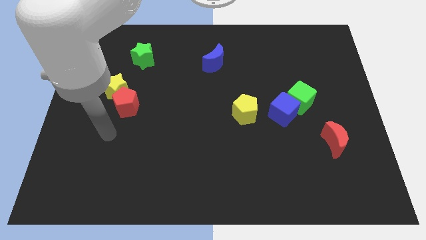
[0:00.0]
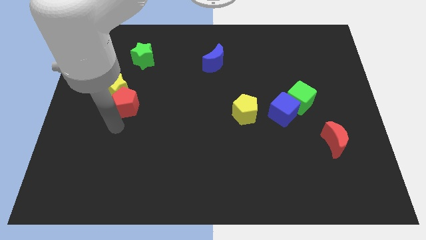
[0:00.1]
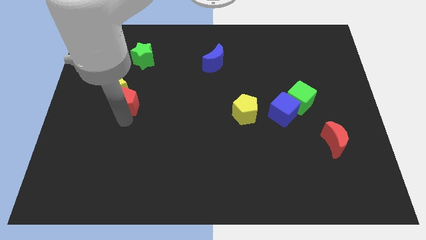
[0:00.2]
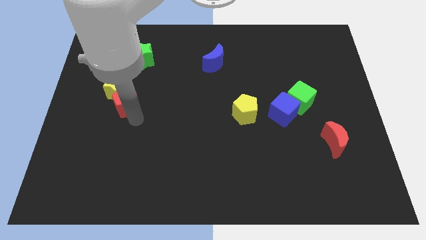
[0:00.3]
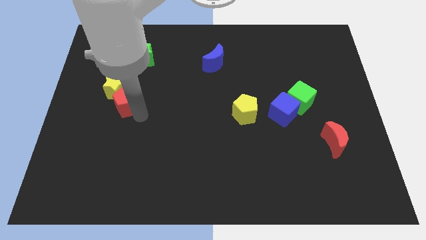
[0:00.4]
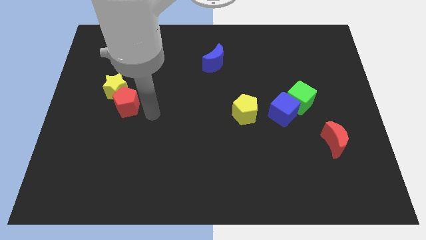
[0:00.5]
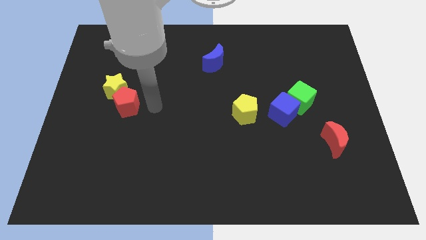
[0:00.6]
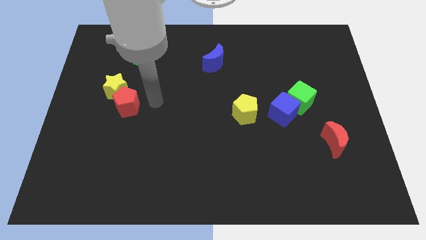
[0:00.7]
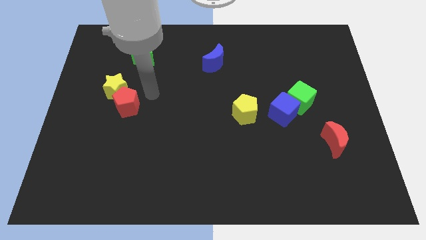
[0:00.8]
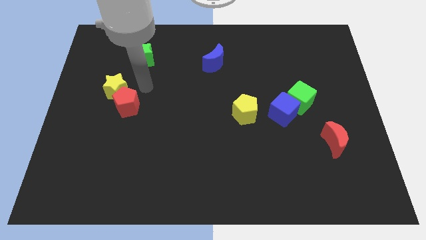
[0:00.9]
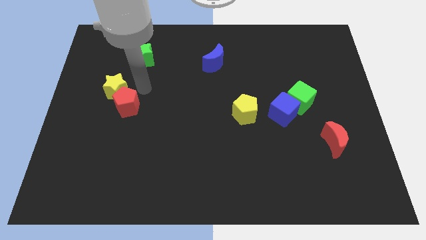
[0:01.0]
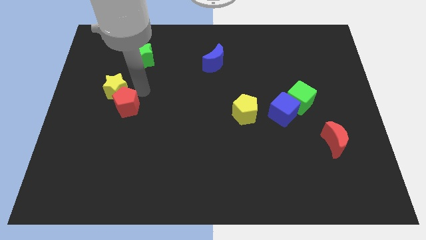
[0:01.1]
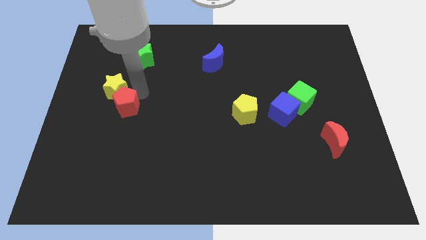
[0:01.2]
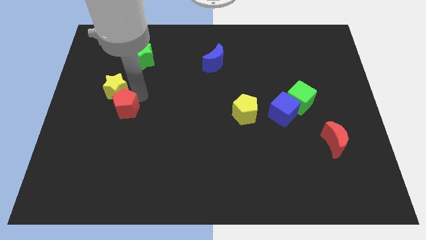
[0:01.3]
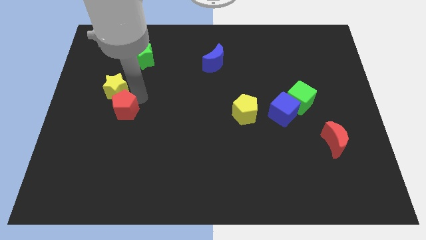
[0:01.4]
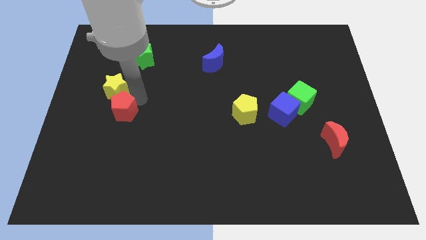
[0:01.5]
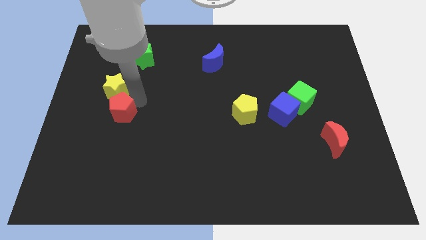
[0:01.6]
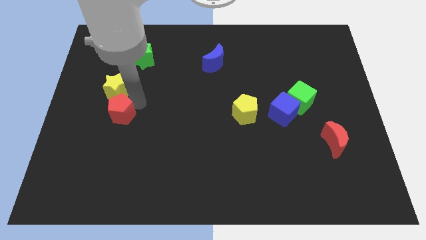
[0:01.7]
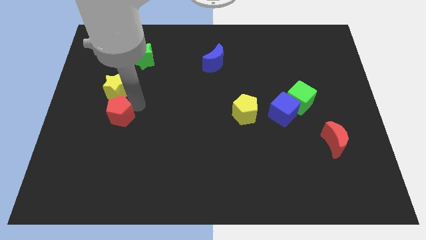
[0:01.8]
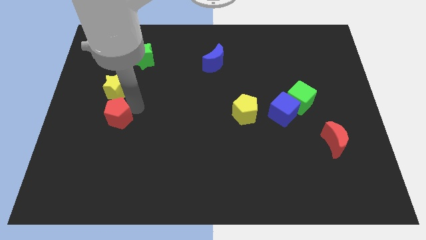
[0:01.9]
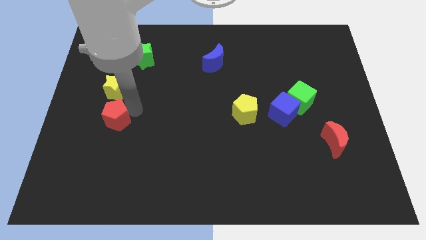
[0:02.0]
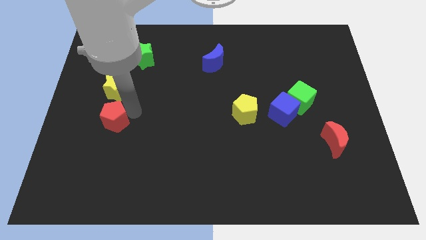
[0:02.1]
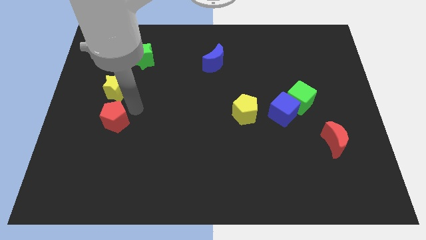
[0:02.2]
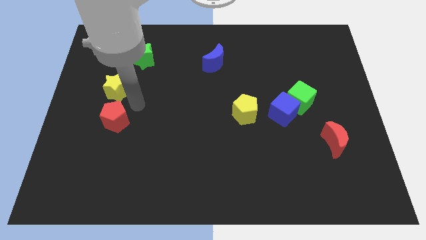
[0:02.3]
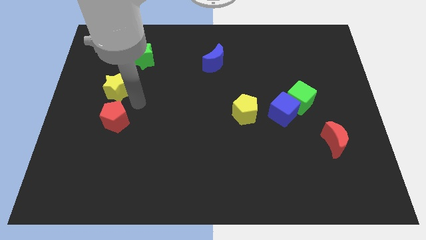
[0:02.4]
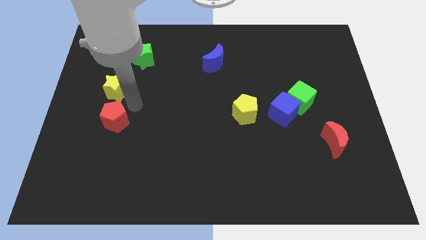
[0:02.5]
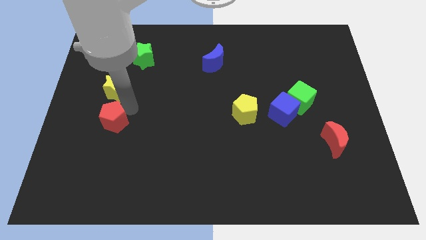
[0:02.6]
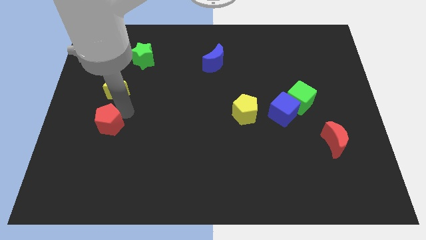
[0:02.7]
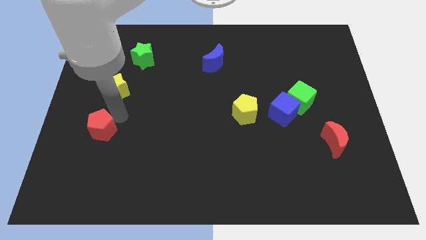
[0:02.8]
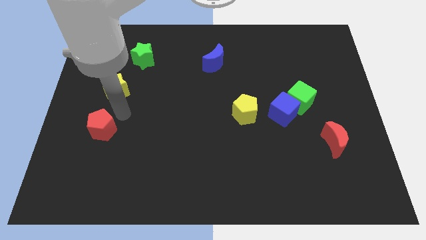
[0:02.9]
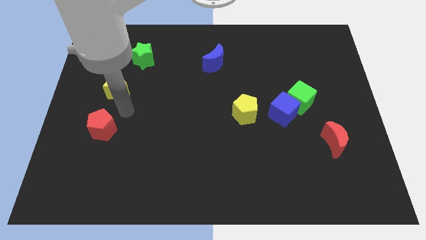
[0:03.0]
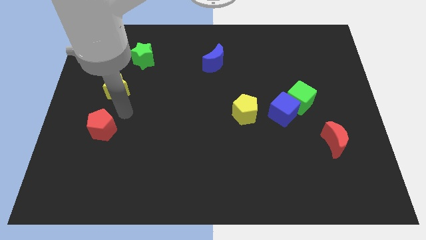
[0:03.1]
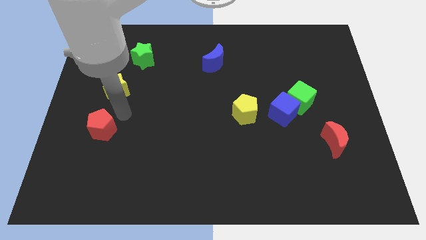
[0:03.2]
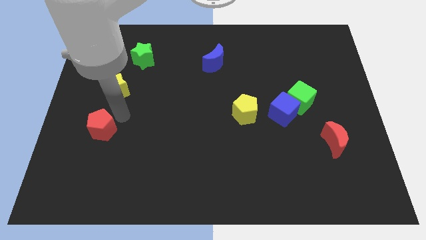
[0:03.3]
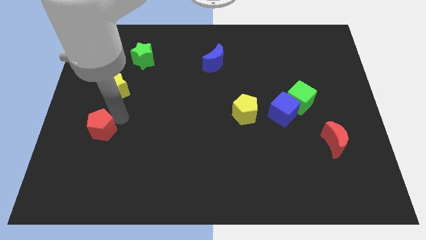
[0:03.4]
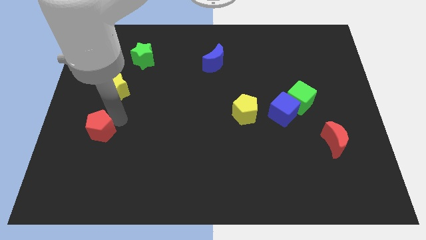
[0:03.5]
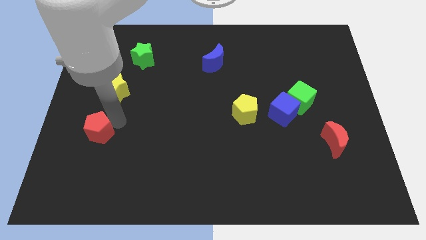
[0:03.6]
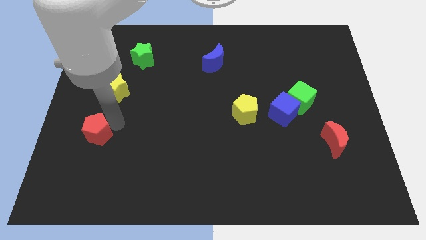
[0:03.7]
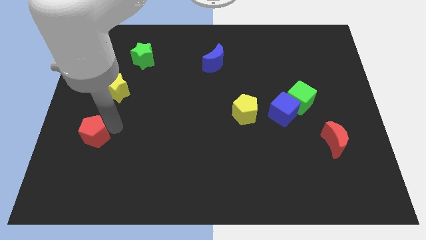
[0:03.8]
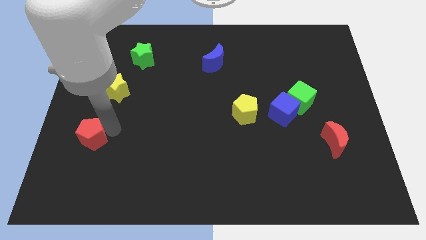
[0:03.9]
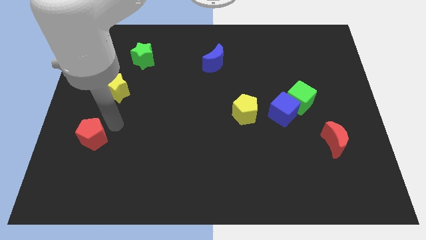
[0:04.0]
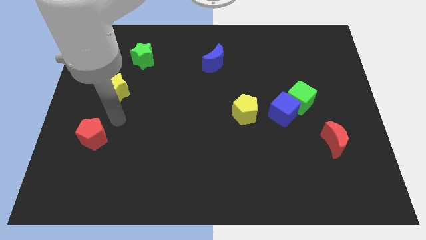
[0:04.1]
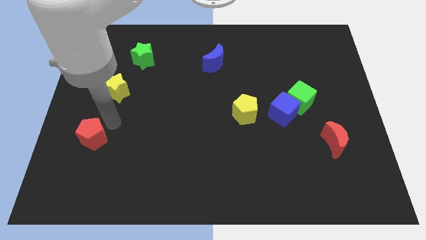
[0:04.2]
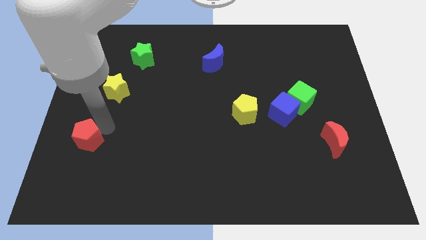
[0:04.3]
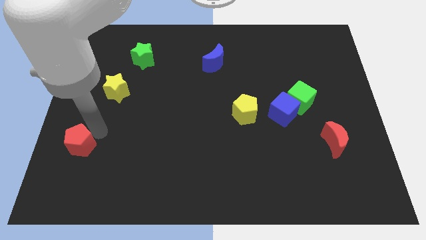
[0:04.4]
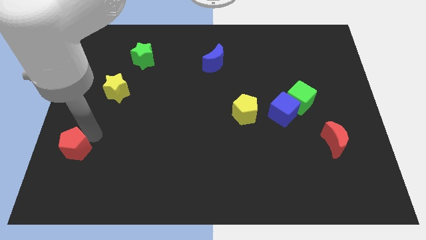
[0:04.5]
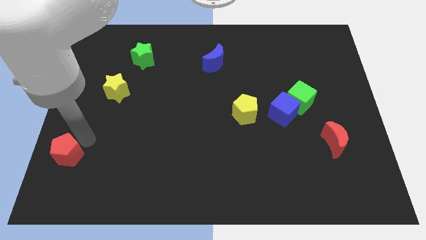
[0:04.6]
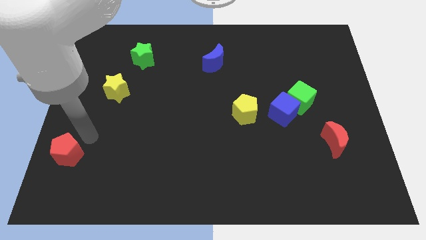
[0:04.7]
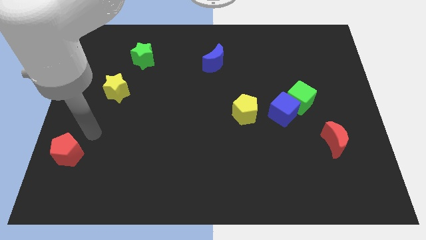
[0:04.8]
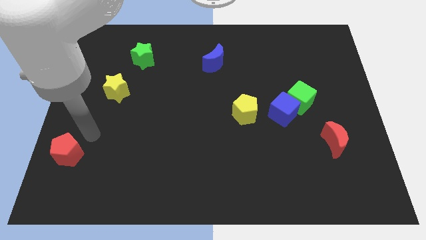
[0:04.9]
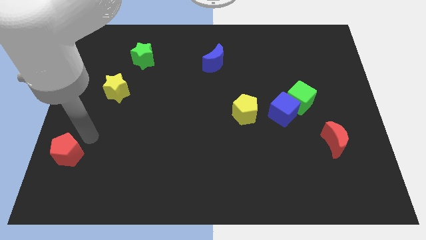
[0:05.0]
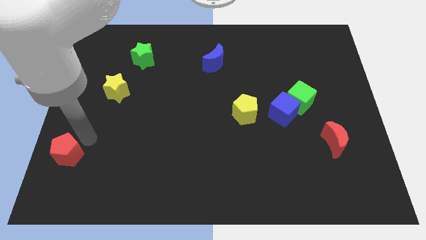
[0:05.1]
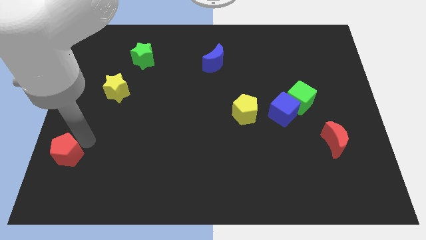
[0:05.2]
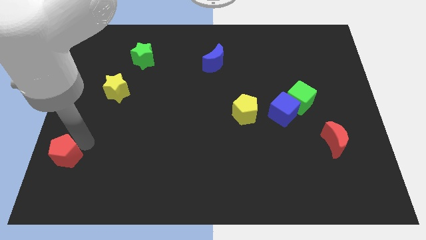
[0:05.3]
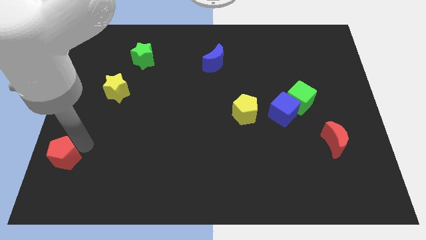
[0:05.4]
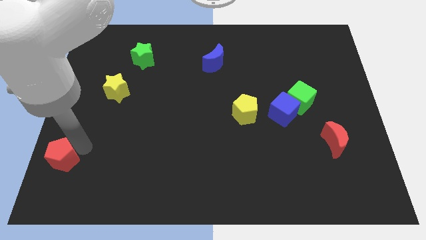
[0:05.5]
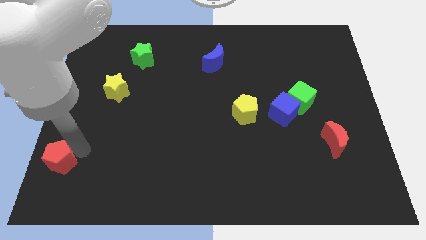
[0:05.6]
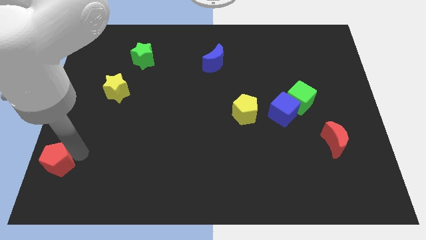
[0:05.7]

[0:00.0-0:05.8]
push the red pentagon to the lower left corner

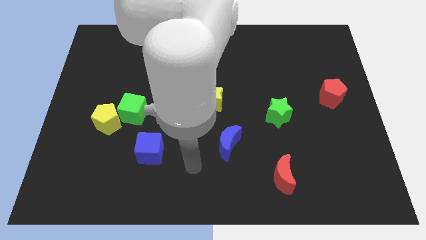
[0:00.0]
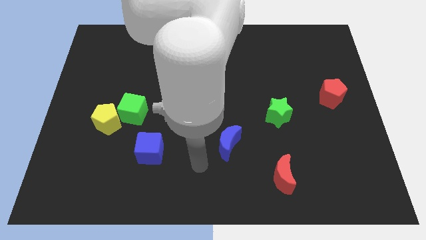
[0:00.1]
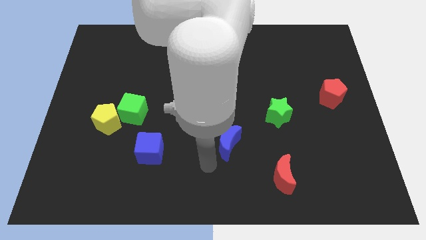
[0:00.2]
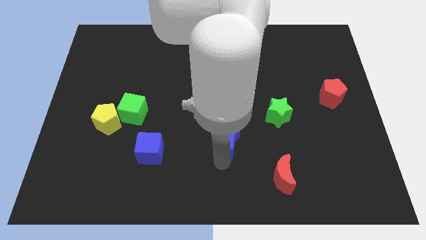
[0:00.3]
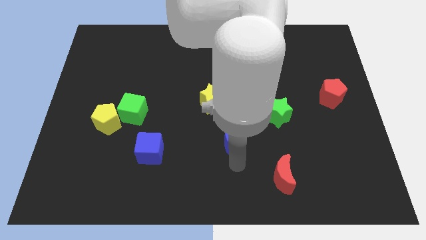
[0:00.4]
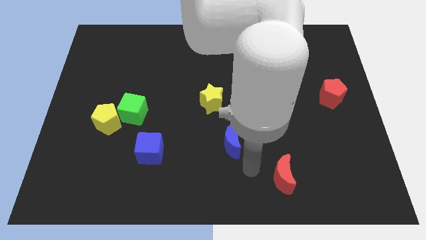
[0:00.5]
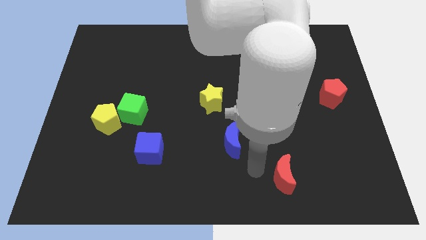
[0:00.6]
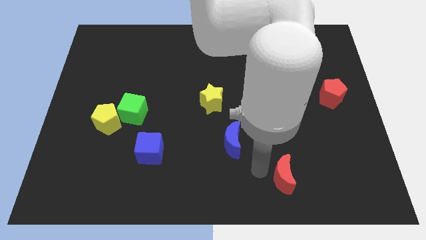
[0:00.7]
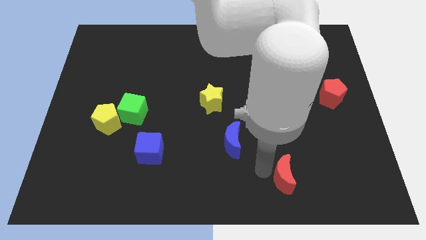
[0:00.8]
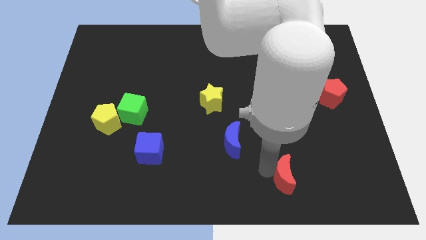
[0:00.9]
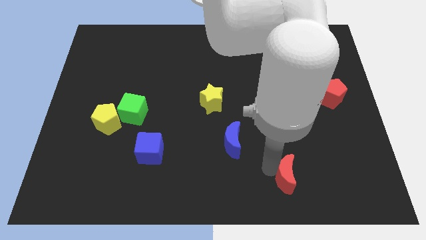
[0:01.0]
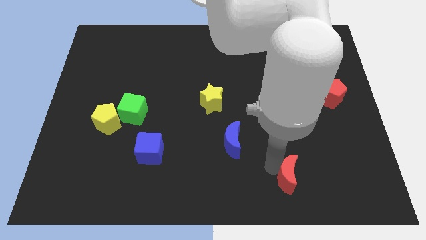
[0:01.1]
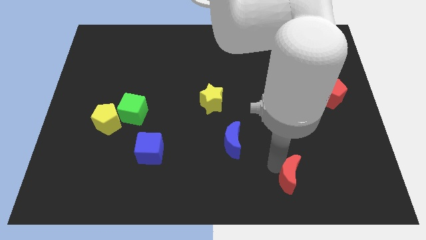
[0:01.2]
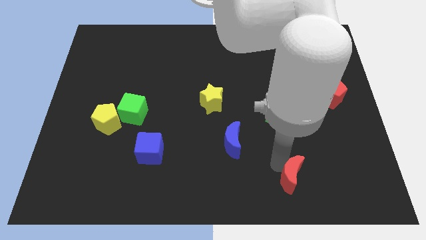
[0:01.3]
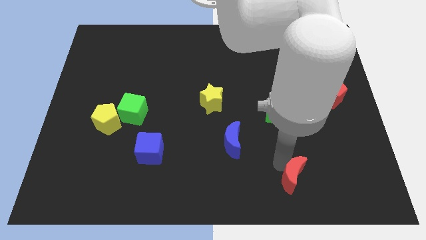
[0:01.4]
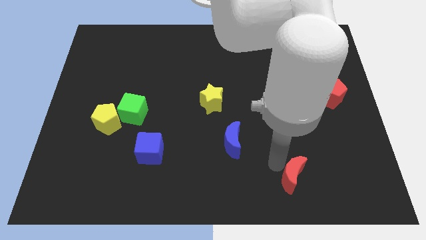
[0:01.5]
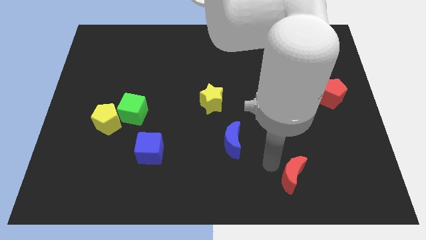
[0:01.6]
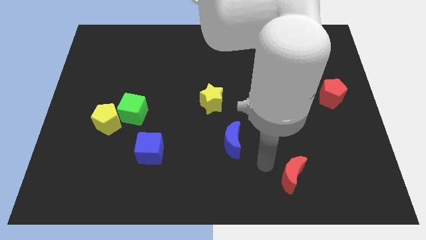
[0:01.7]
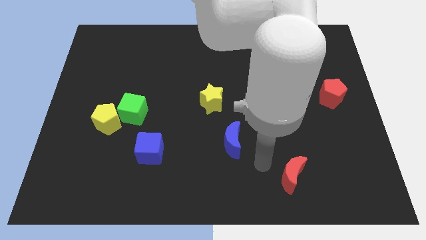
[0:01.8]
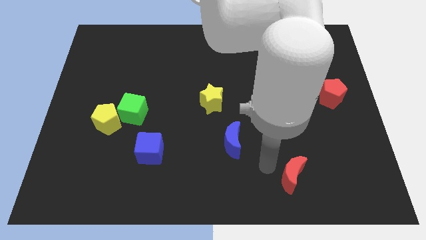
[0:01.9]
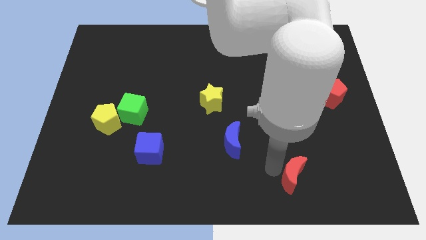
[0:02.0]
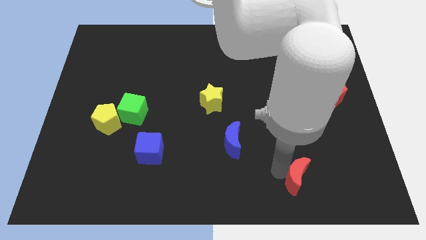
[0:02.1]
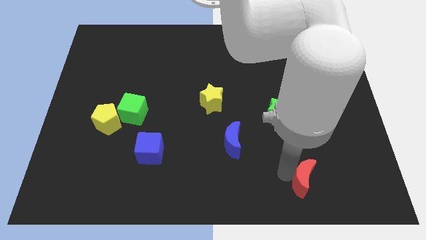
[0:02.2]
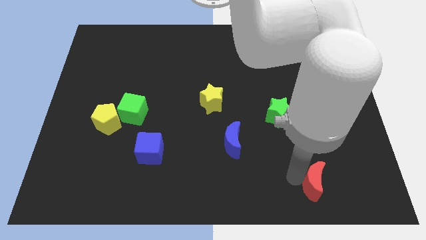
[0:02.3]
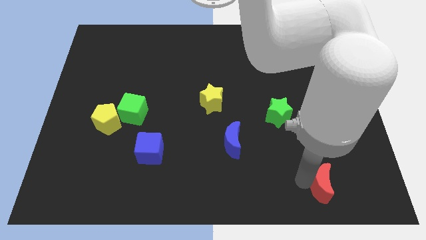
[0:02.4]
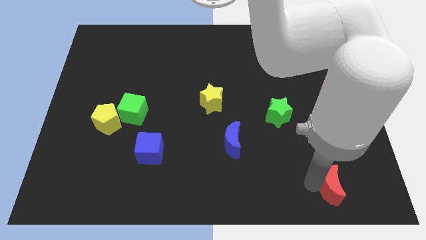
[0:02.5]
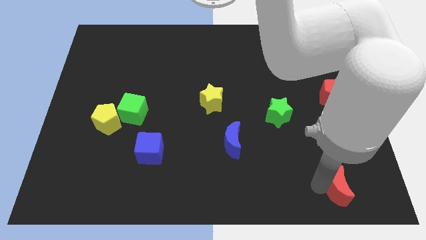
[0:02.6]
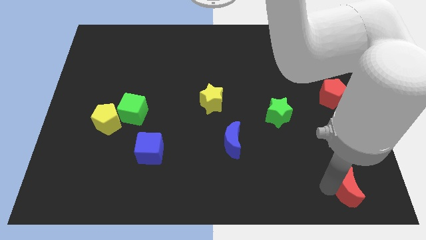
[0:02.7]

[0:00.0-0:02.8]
put the red moon to the lower right corner
